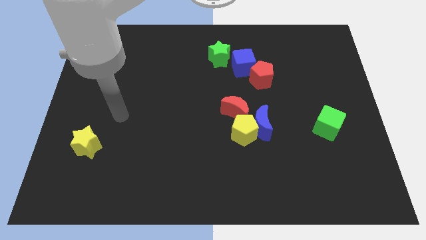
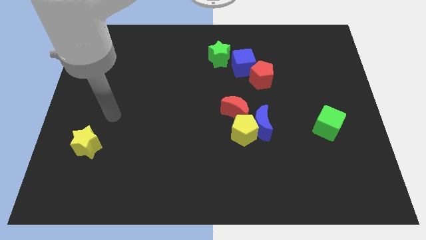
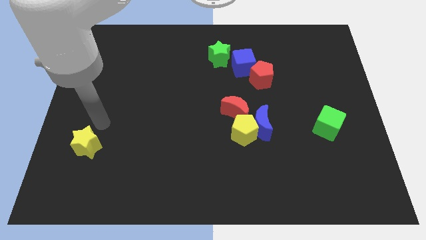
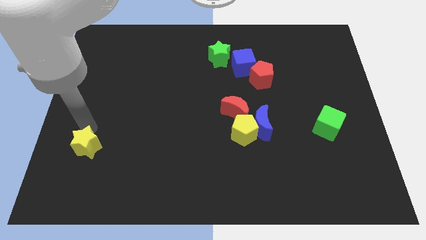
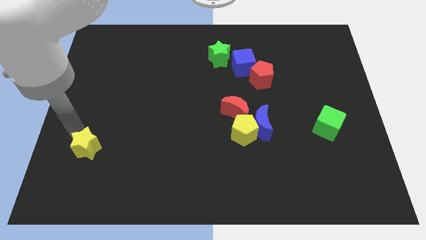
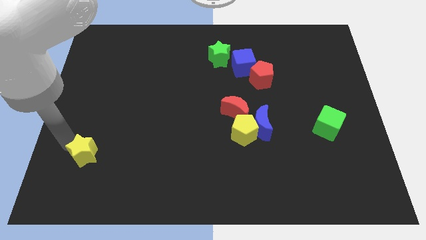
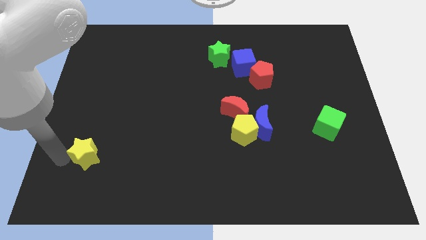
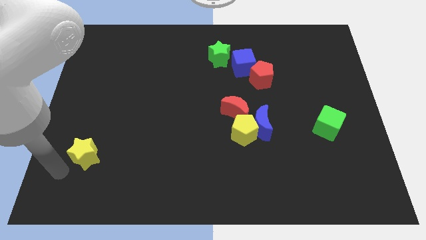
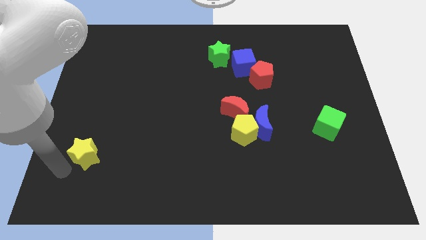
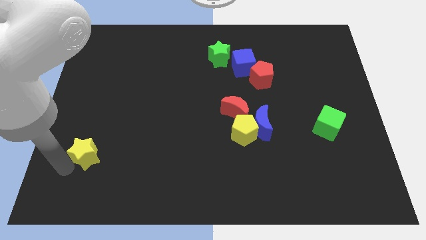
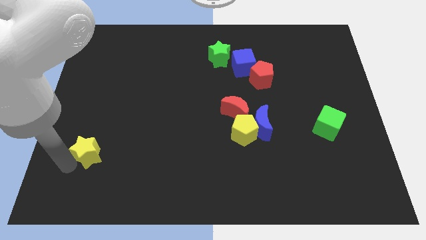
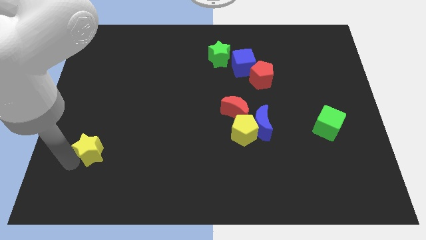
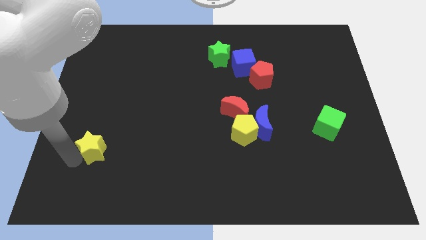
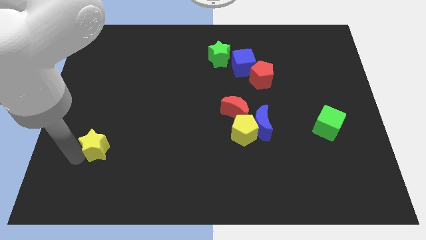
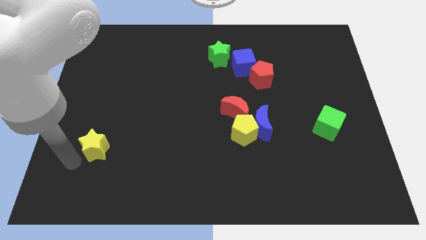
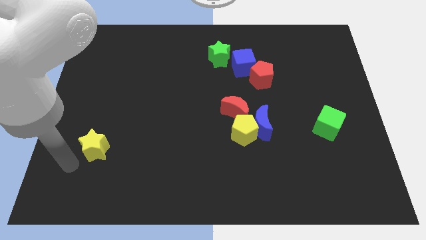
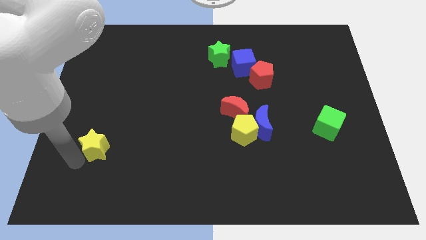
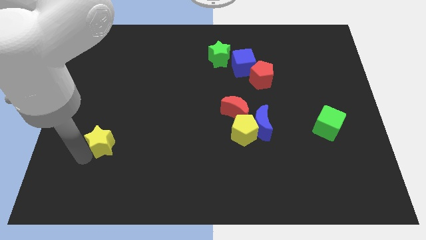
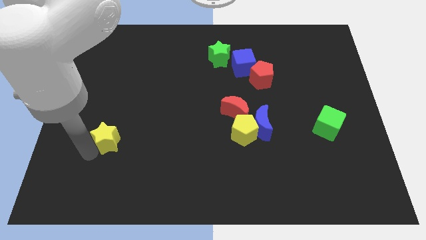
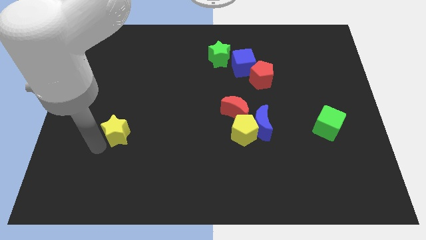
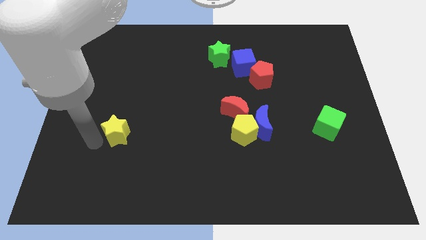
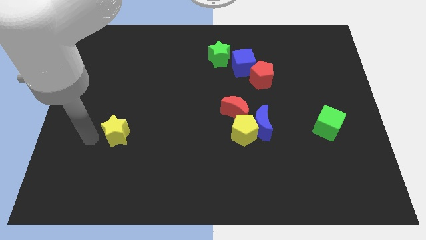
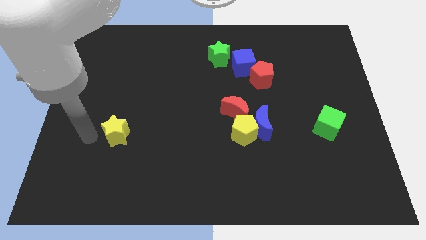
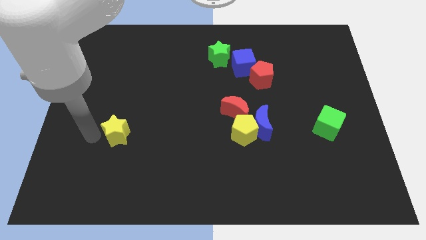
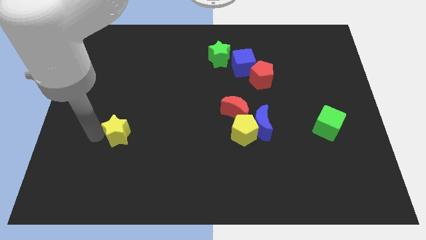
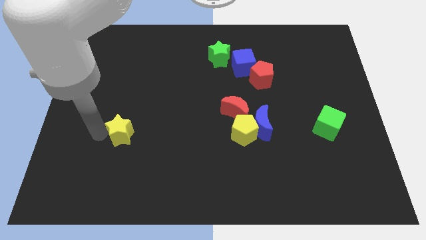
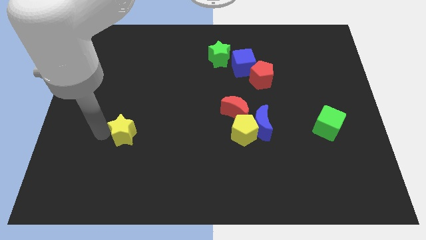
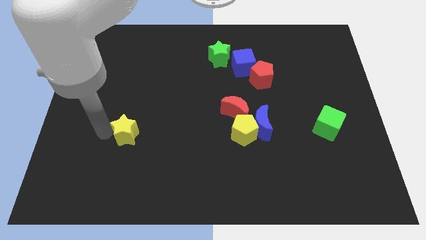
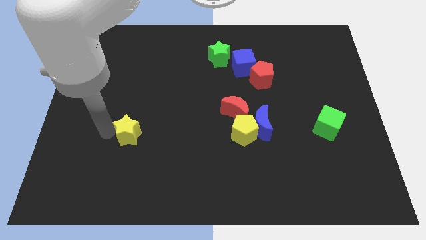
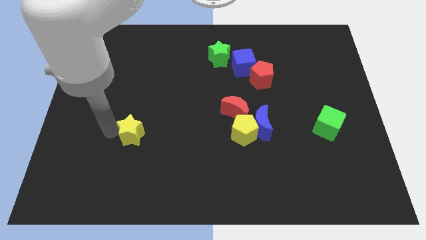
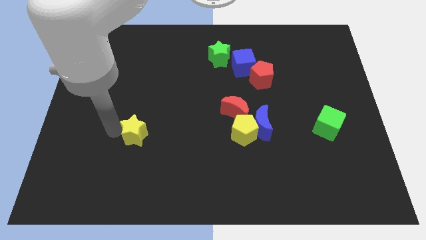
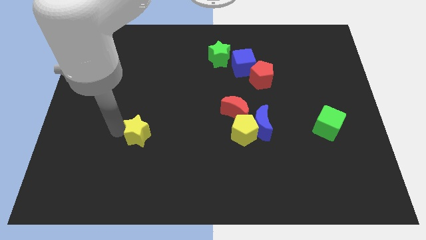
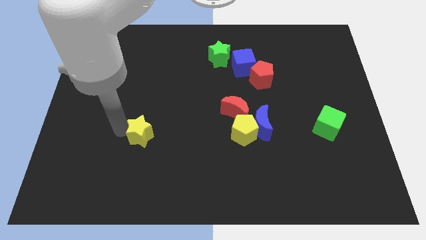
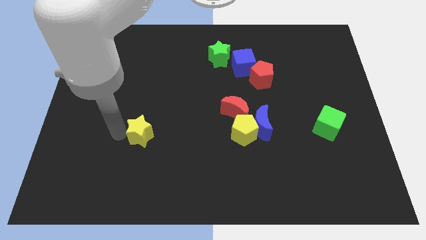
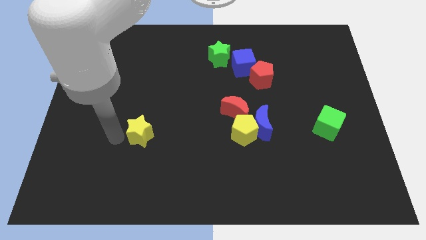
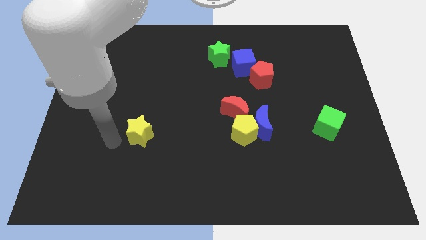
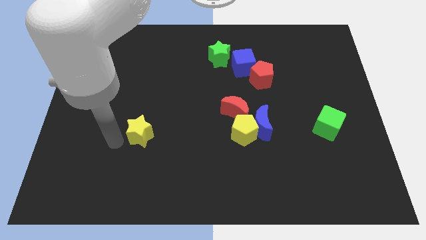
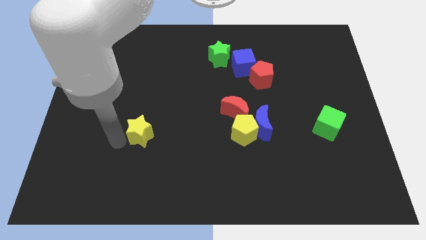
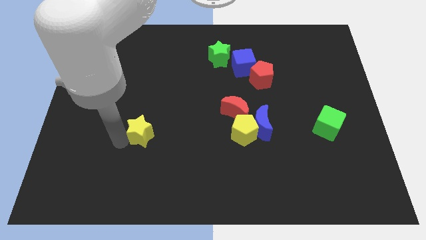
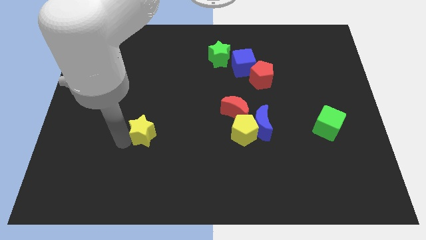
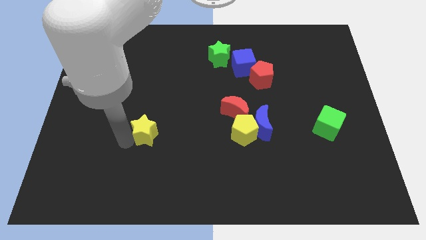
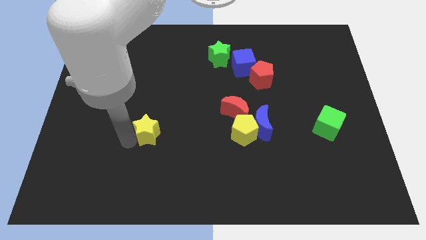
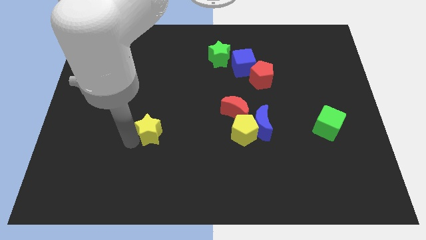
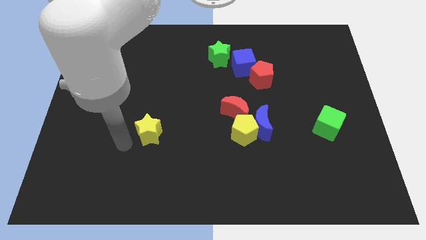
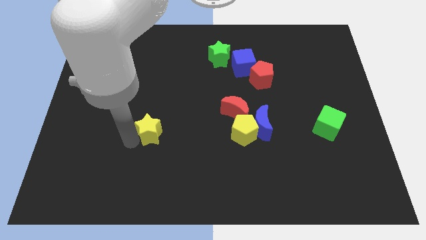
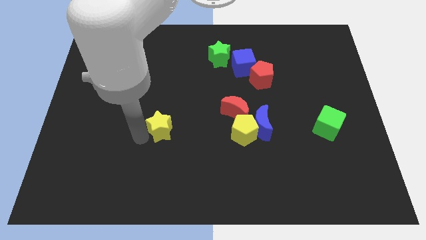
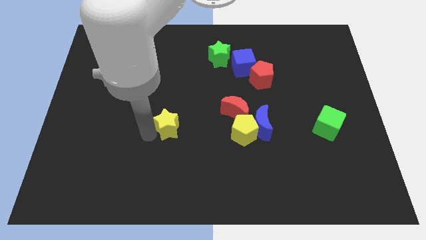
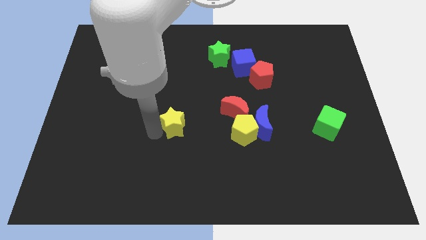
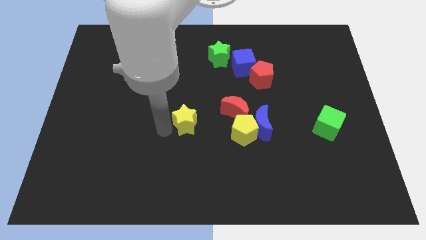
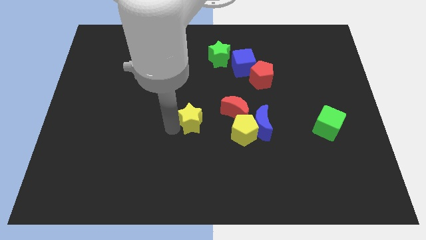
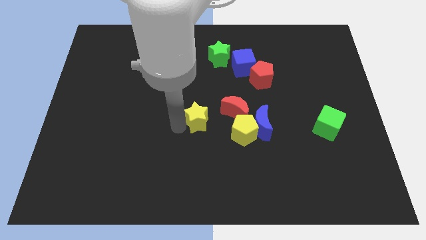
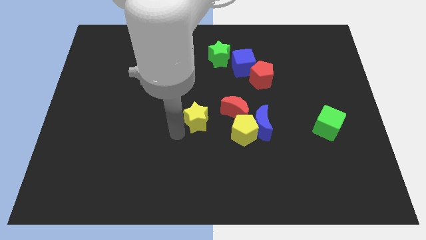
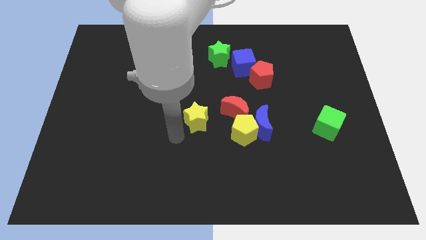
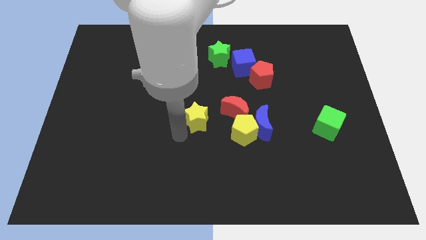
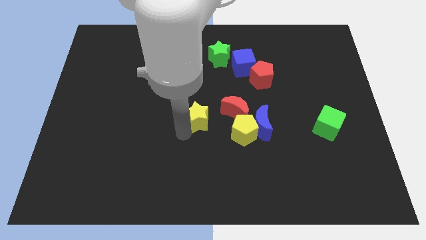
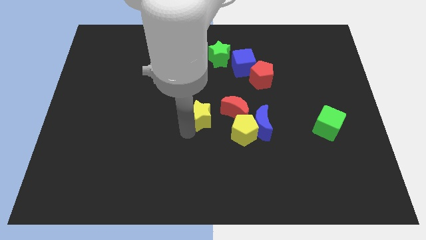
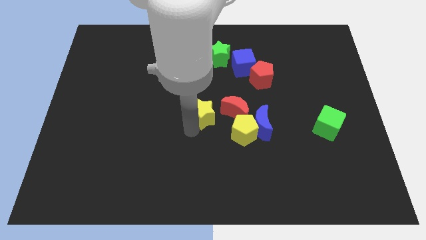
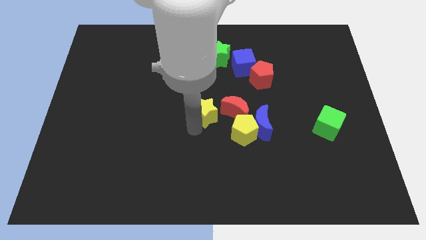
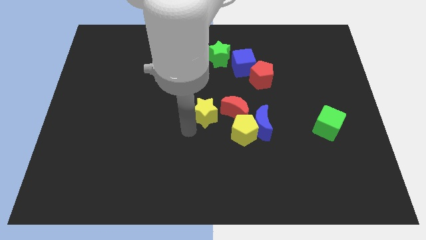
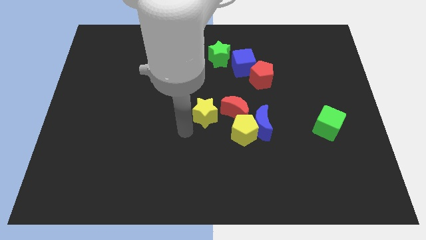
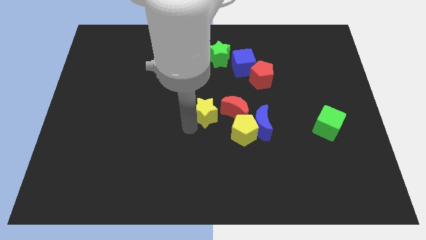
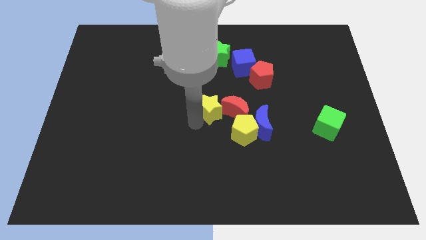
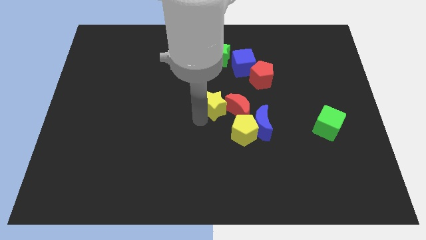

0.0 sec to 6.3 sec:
slide the yellow star to the top left side of the blue moon

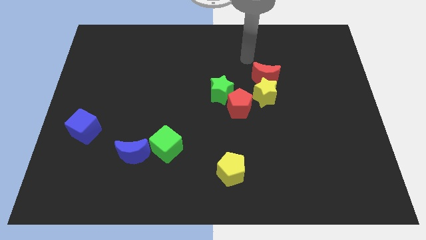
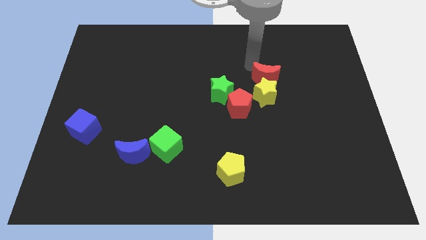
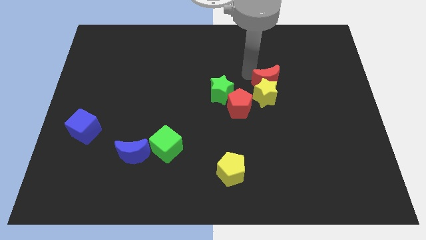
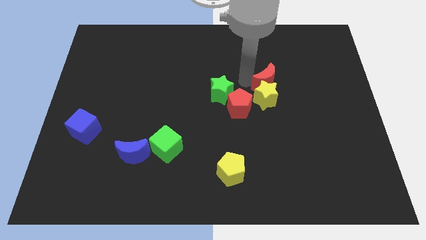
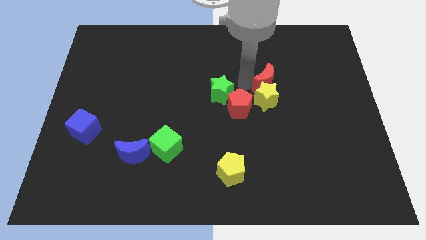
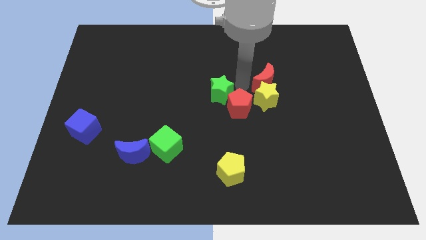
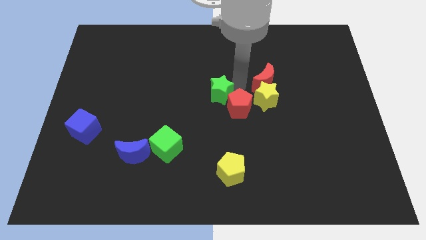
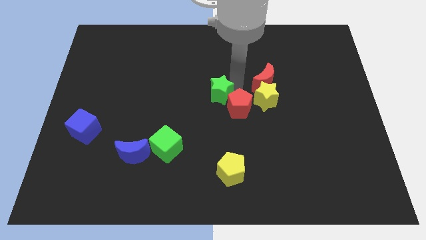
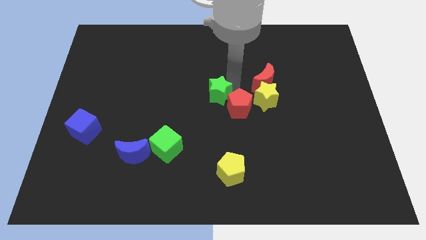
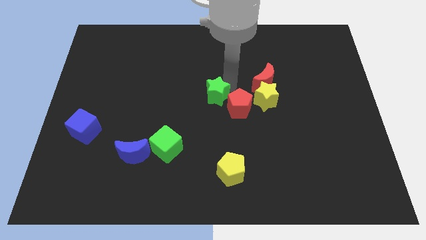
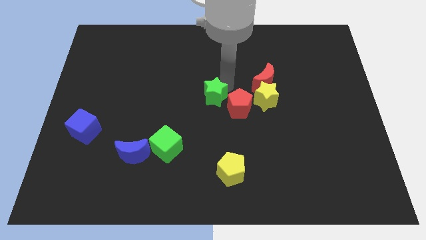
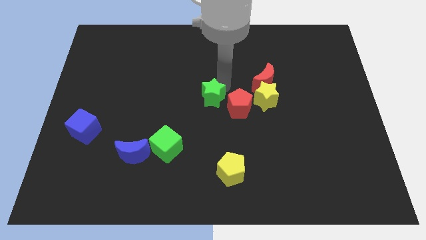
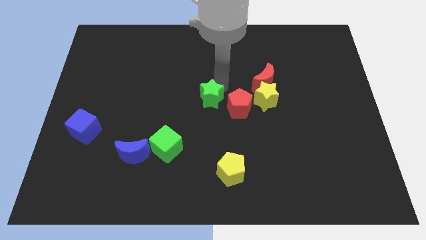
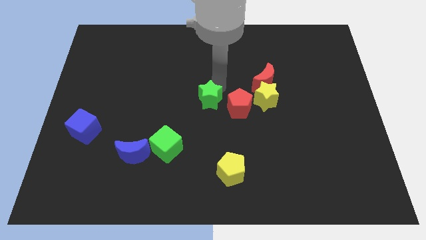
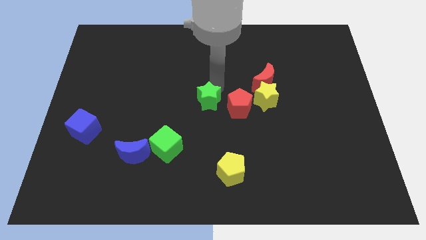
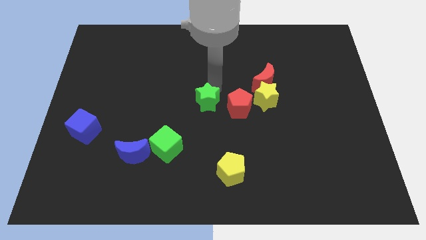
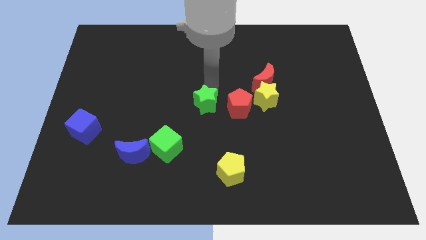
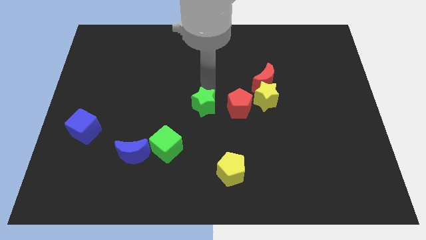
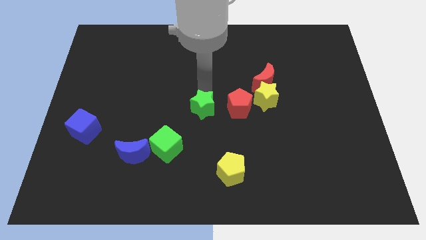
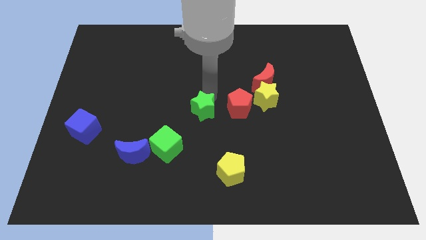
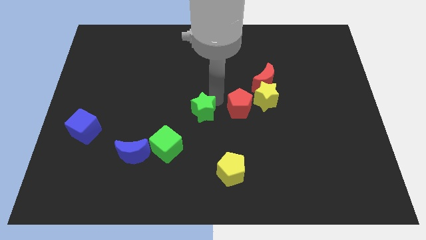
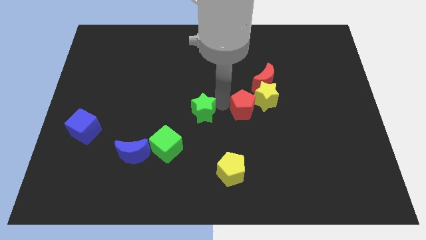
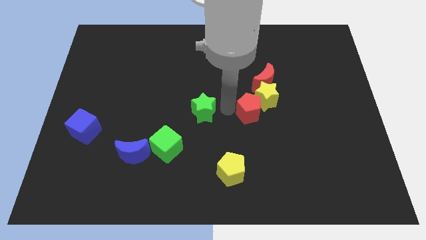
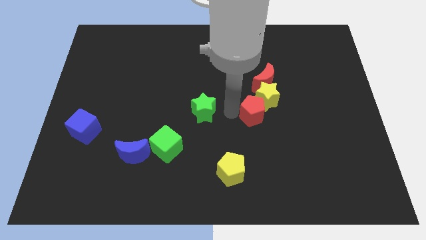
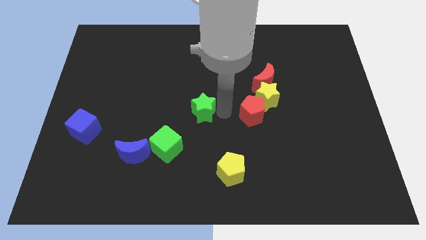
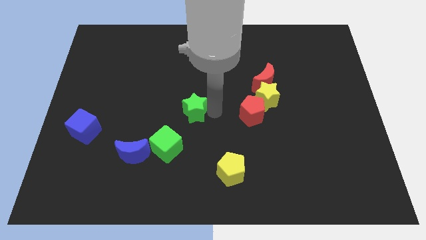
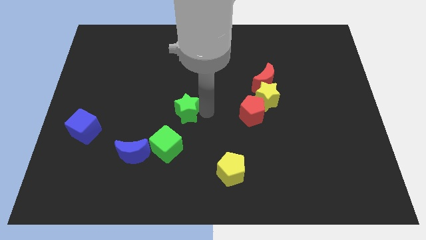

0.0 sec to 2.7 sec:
slide the green star above the green cube
